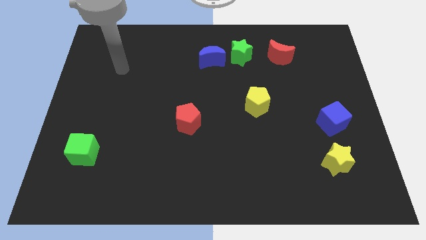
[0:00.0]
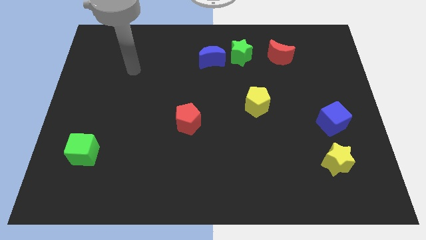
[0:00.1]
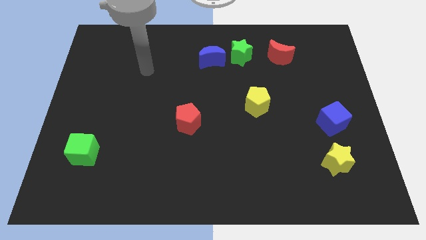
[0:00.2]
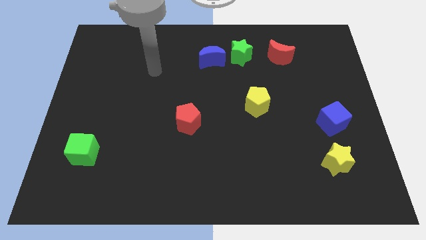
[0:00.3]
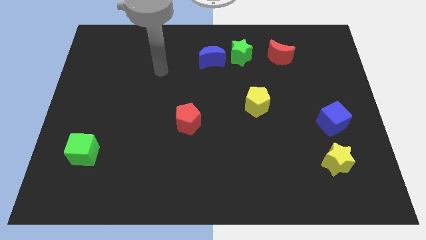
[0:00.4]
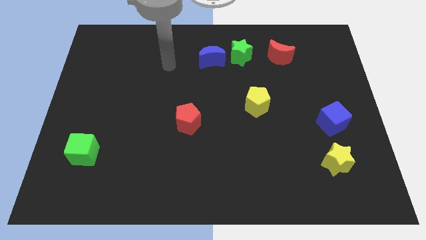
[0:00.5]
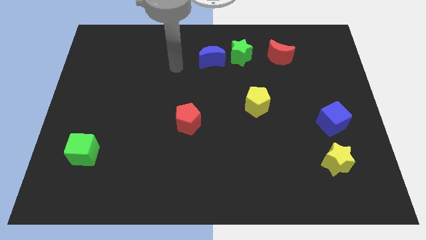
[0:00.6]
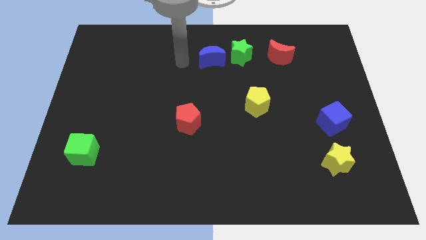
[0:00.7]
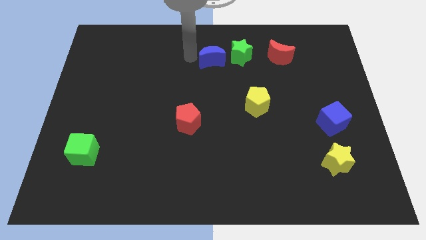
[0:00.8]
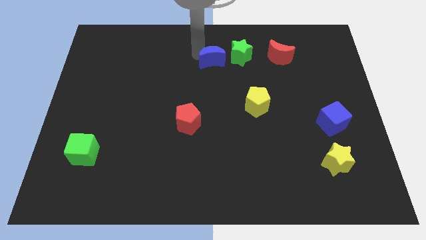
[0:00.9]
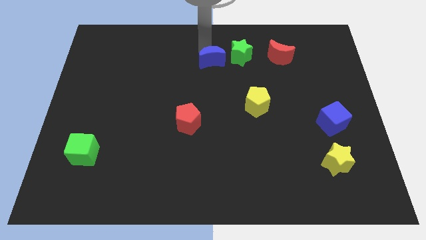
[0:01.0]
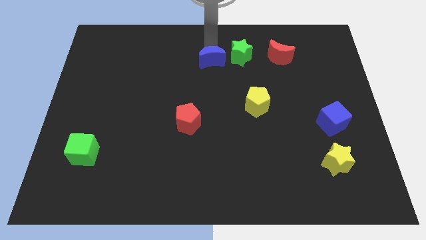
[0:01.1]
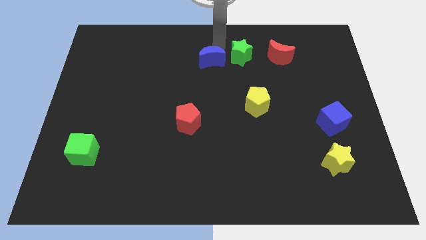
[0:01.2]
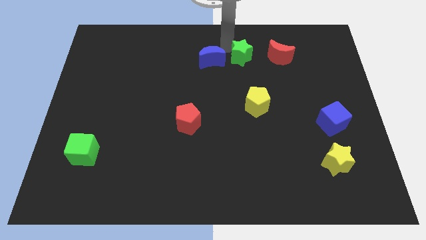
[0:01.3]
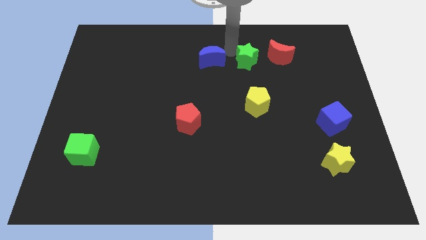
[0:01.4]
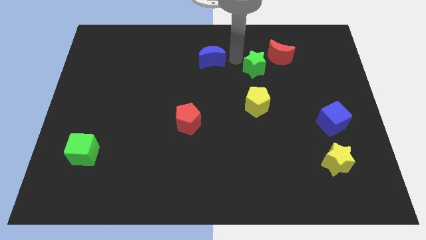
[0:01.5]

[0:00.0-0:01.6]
pull the blue moon apart from the green star

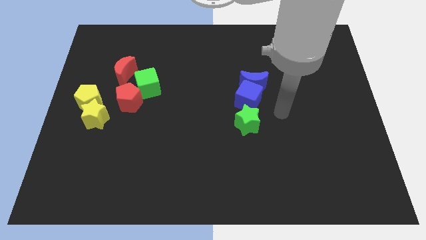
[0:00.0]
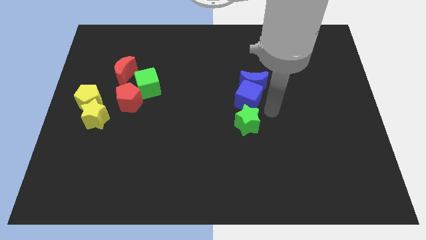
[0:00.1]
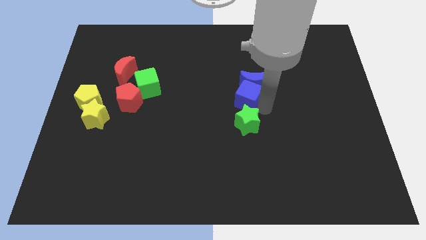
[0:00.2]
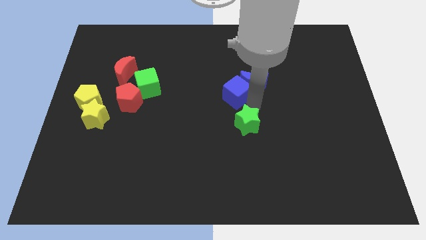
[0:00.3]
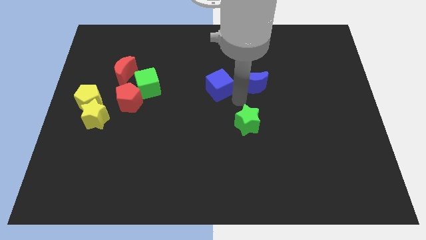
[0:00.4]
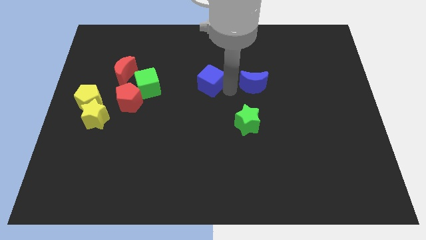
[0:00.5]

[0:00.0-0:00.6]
separate the blue moon from the blue cube

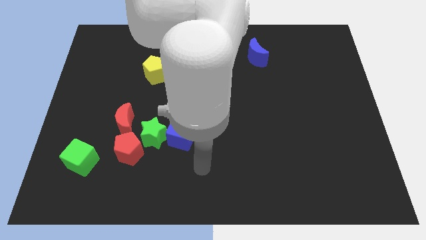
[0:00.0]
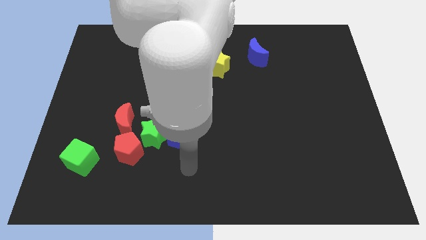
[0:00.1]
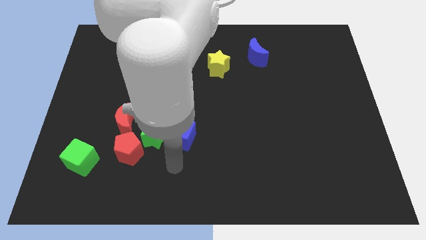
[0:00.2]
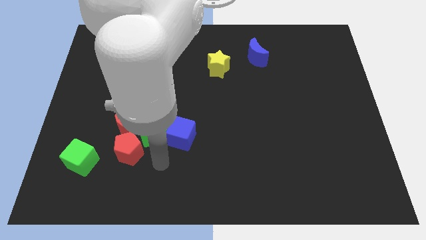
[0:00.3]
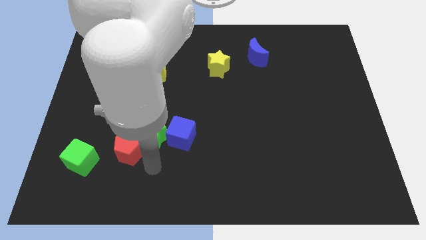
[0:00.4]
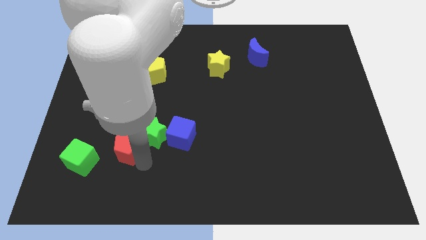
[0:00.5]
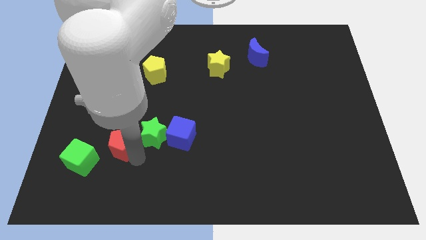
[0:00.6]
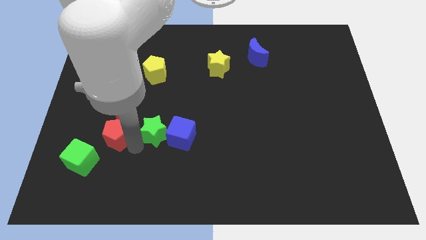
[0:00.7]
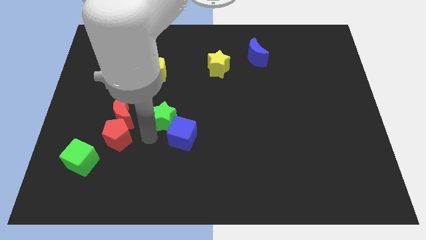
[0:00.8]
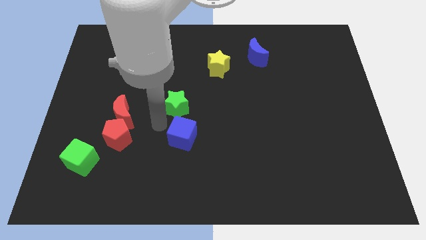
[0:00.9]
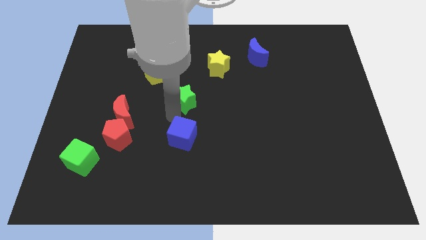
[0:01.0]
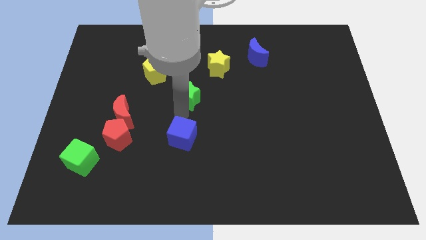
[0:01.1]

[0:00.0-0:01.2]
separate the blue cube from the green star

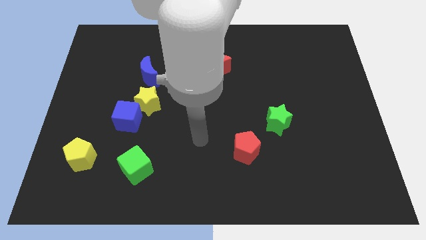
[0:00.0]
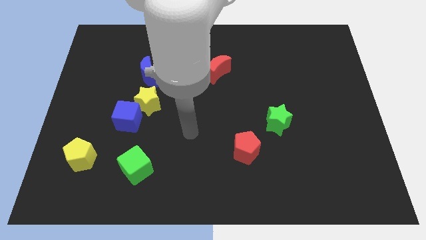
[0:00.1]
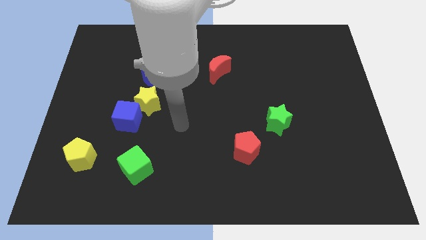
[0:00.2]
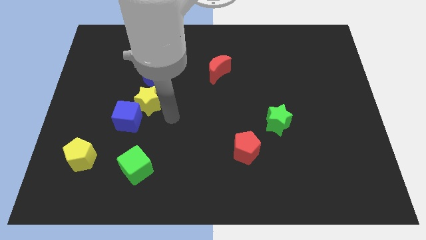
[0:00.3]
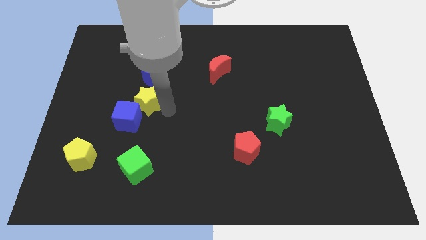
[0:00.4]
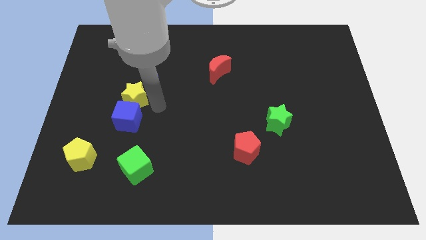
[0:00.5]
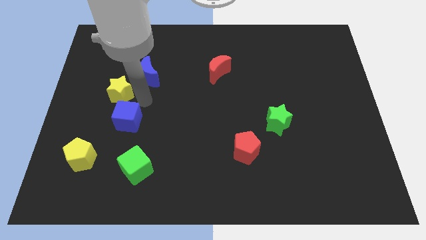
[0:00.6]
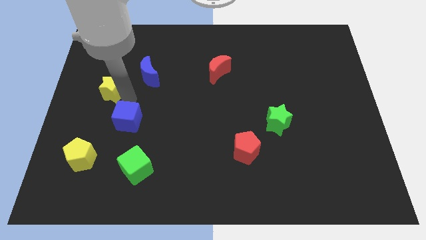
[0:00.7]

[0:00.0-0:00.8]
move the blue cube away from the yellow star

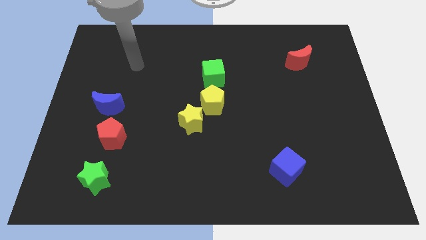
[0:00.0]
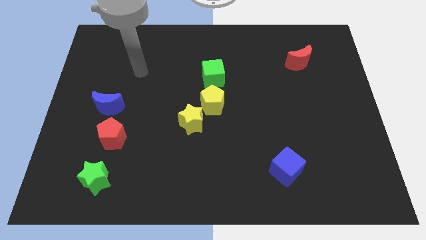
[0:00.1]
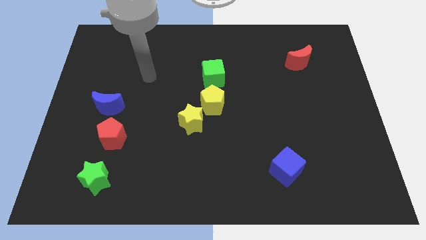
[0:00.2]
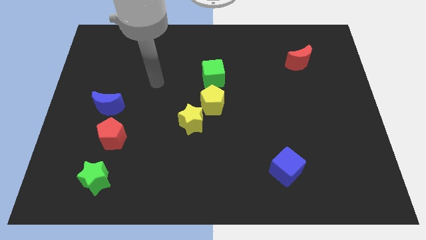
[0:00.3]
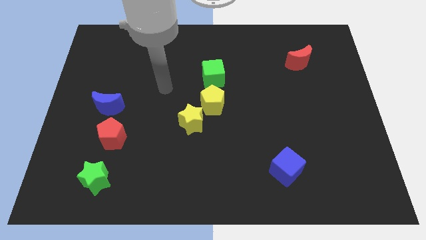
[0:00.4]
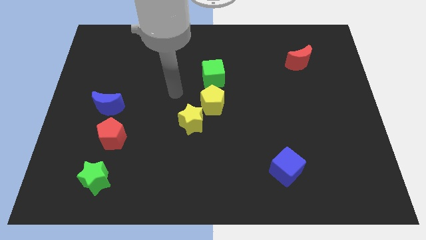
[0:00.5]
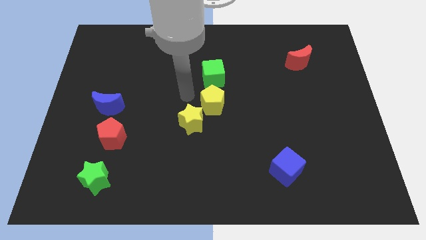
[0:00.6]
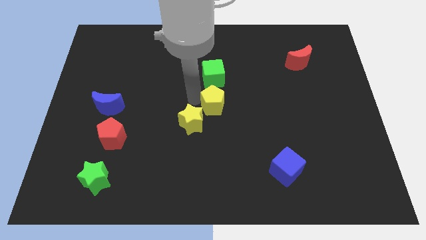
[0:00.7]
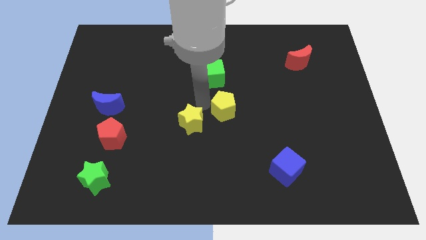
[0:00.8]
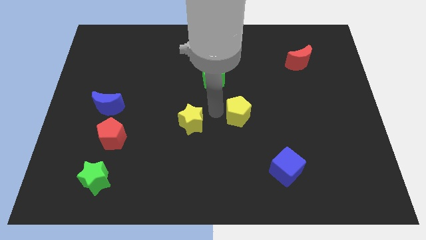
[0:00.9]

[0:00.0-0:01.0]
separate the yellow star from the yellow pentagon

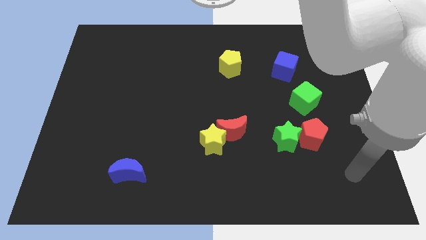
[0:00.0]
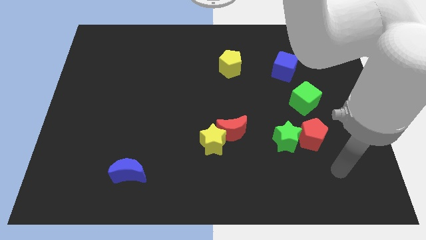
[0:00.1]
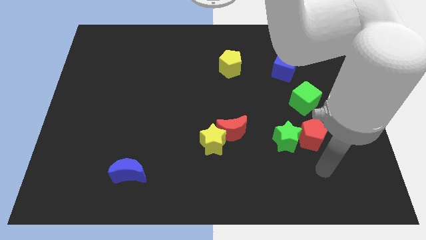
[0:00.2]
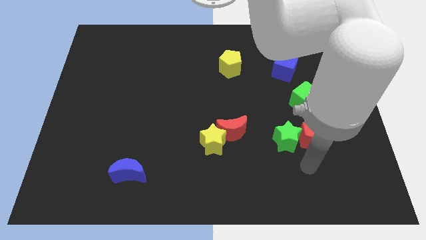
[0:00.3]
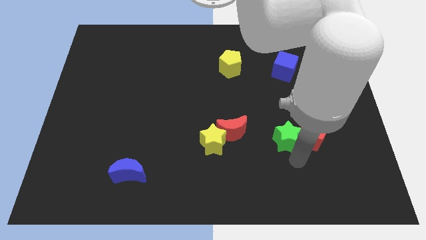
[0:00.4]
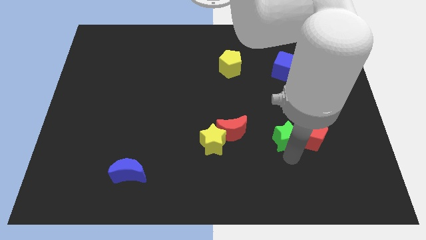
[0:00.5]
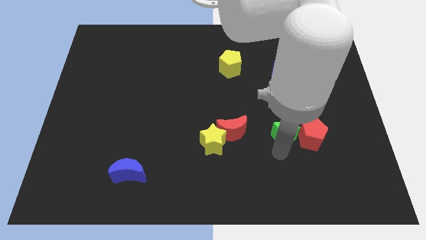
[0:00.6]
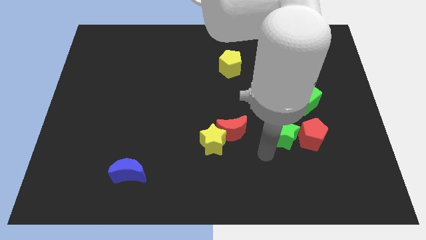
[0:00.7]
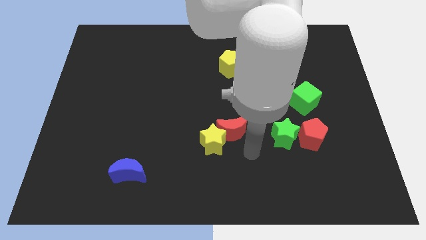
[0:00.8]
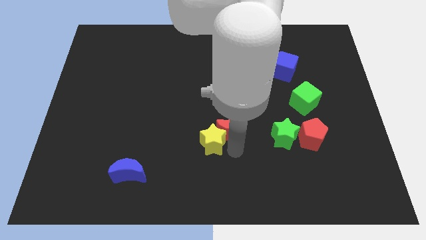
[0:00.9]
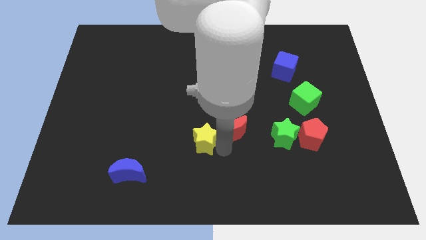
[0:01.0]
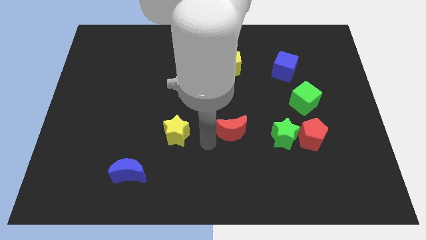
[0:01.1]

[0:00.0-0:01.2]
separate the red moon from the yellow star

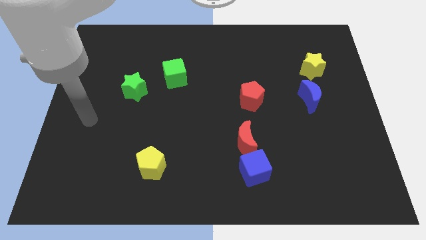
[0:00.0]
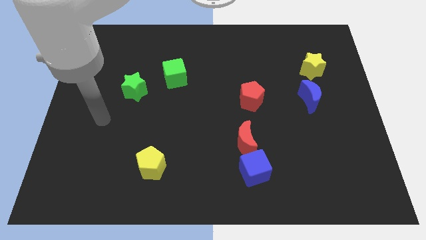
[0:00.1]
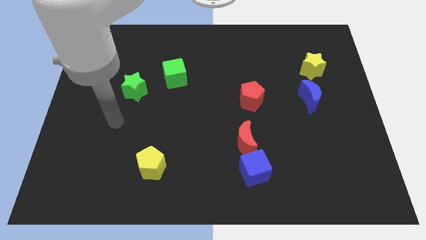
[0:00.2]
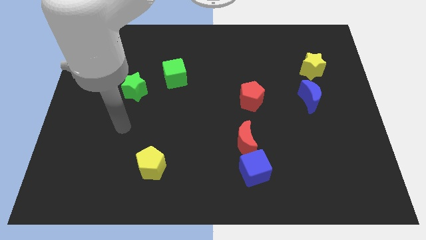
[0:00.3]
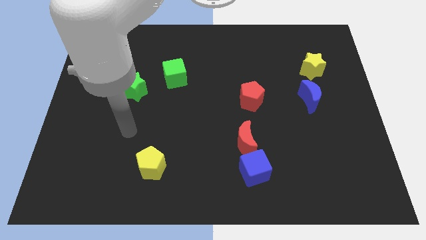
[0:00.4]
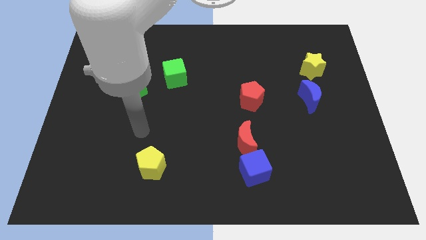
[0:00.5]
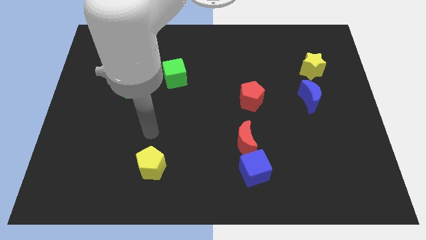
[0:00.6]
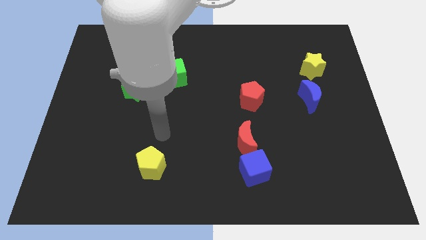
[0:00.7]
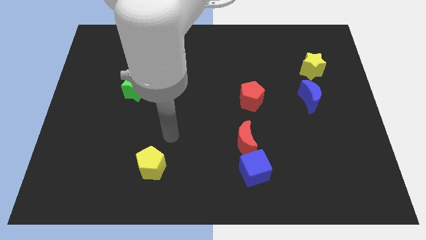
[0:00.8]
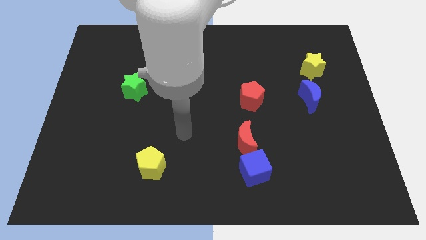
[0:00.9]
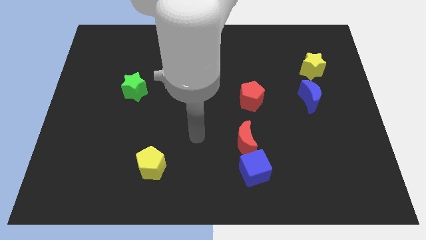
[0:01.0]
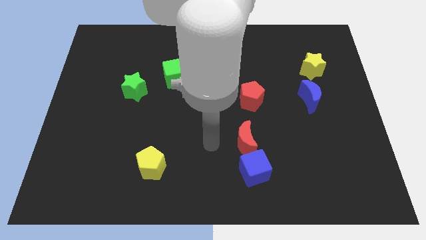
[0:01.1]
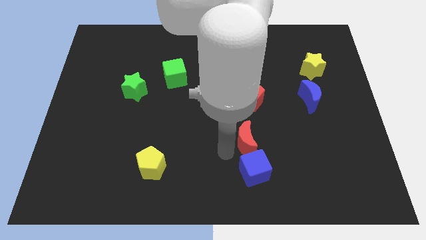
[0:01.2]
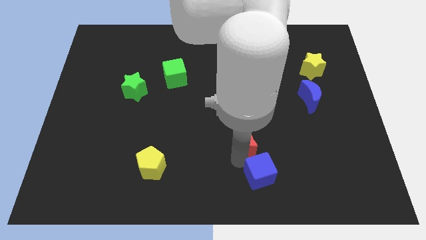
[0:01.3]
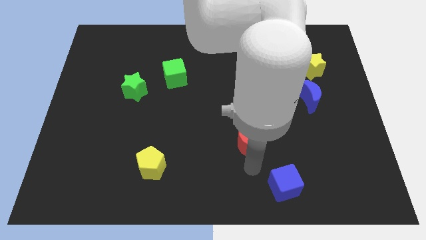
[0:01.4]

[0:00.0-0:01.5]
pull the red moon apart from the blue cube

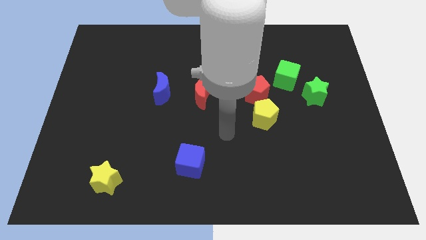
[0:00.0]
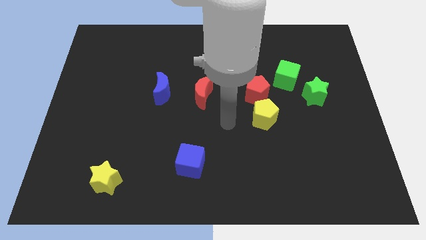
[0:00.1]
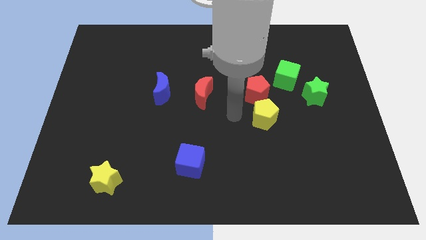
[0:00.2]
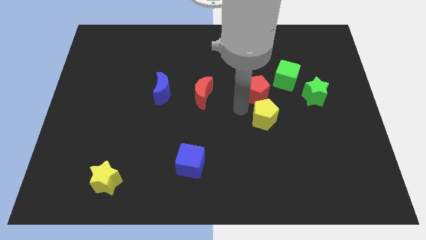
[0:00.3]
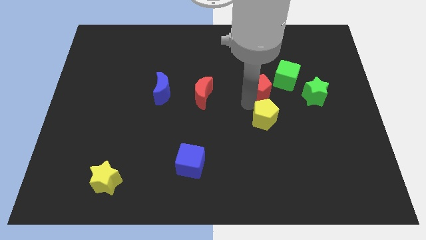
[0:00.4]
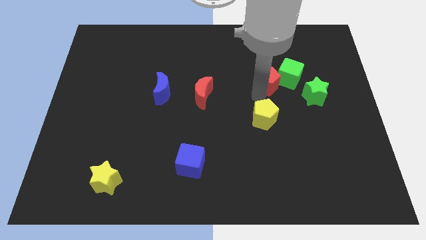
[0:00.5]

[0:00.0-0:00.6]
pull the yellow pentagon apart from the red pentagon

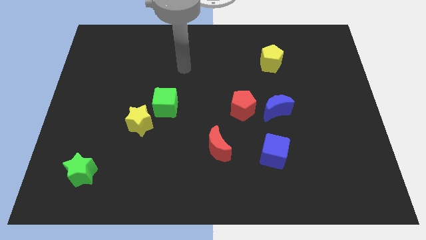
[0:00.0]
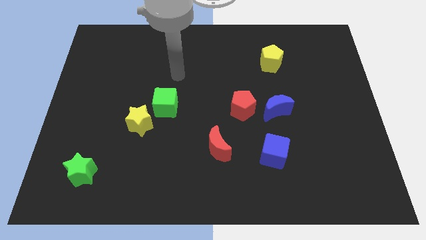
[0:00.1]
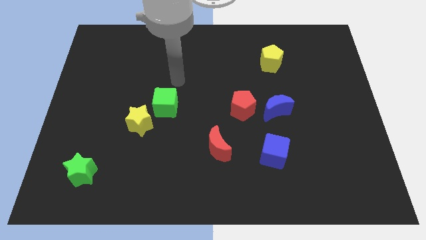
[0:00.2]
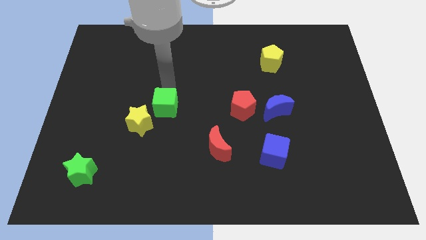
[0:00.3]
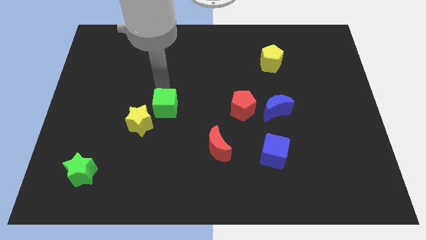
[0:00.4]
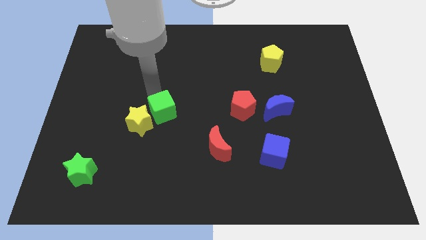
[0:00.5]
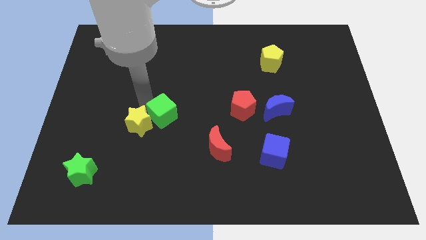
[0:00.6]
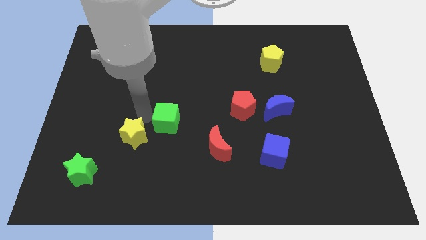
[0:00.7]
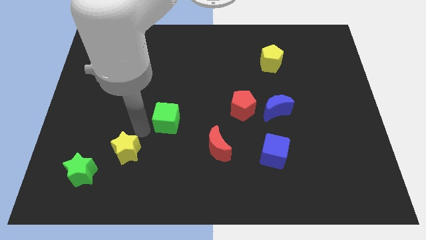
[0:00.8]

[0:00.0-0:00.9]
move the green cube away from the yellow star
